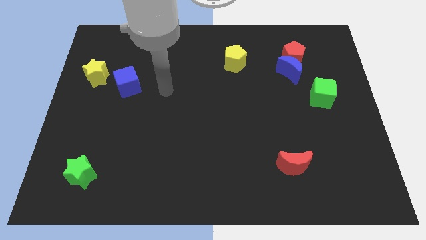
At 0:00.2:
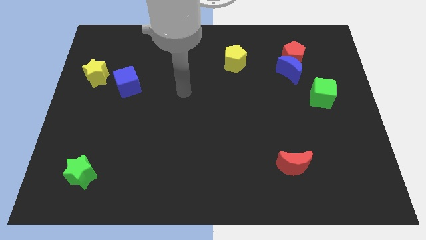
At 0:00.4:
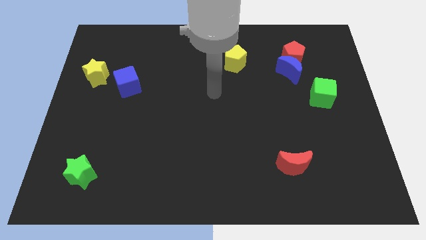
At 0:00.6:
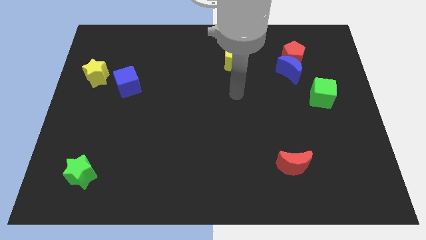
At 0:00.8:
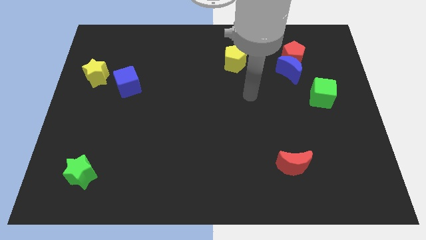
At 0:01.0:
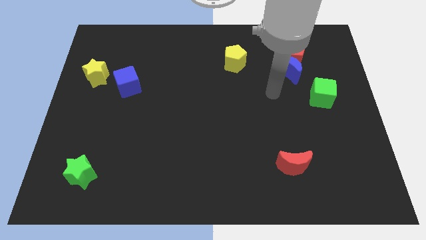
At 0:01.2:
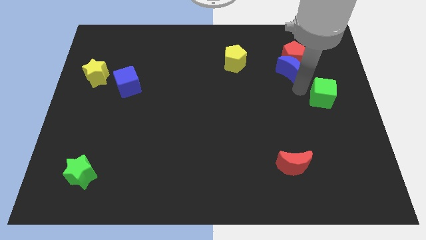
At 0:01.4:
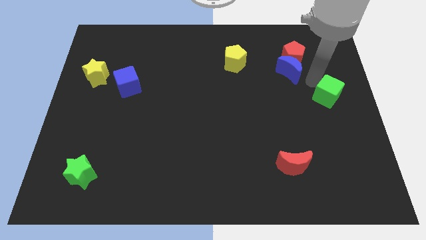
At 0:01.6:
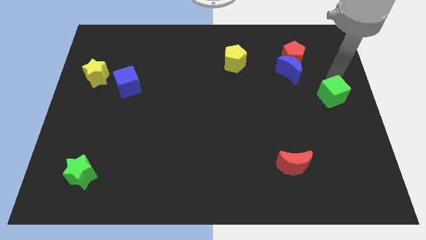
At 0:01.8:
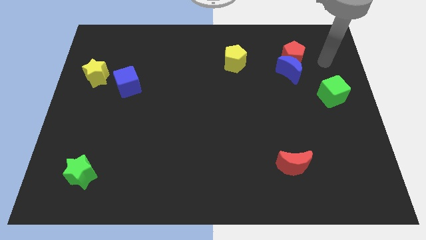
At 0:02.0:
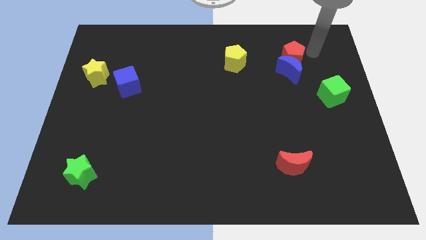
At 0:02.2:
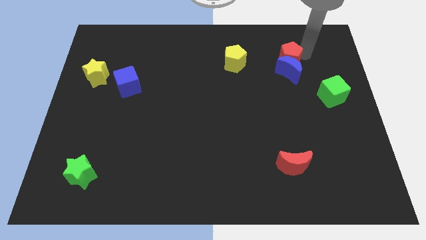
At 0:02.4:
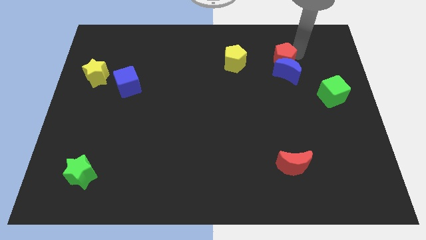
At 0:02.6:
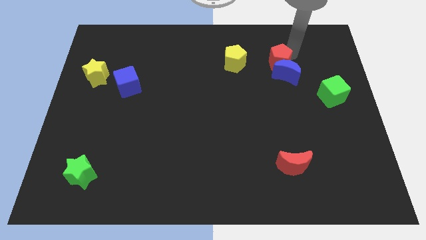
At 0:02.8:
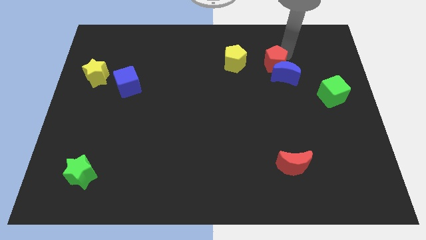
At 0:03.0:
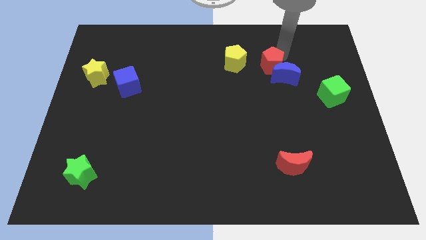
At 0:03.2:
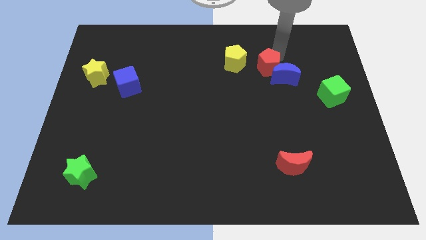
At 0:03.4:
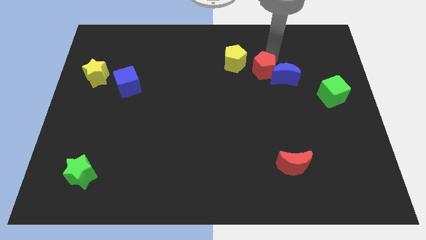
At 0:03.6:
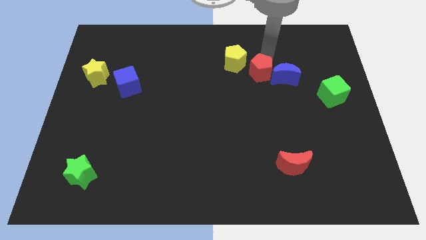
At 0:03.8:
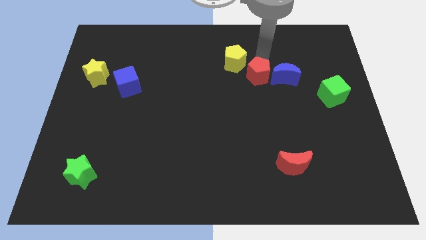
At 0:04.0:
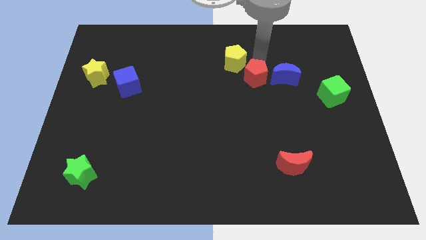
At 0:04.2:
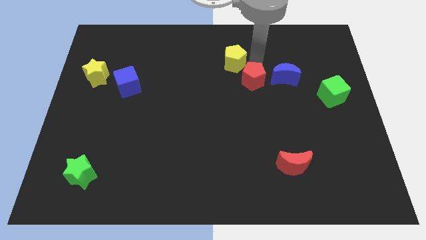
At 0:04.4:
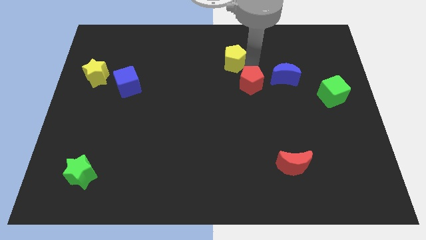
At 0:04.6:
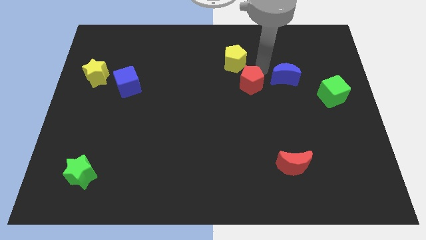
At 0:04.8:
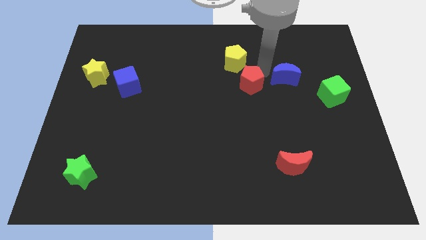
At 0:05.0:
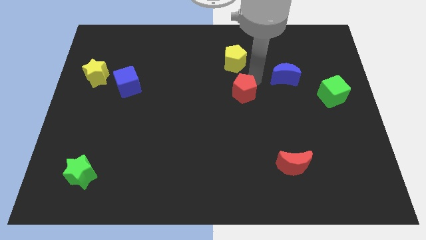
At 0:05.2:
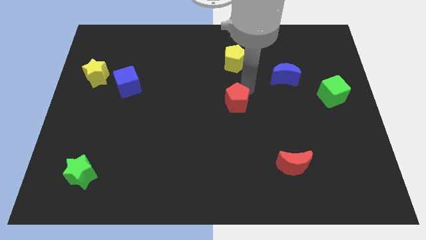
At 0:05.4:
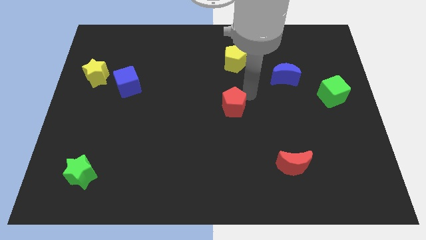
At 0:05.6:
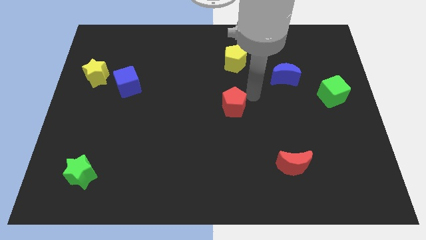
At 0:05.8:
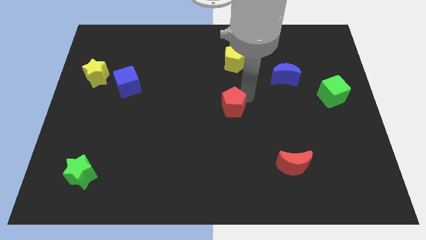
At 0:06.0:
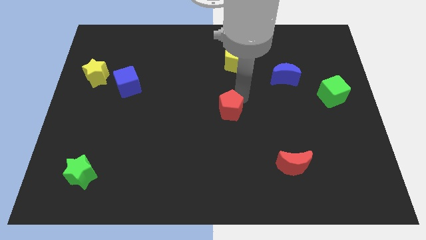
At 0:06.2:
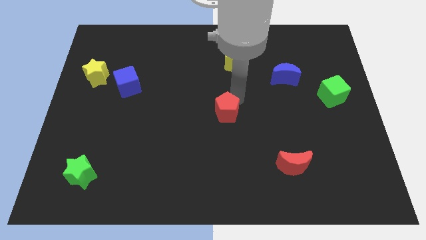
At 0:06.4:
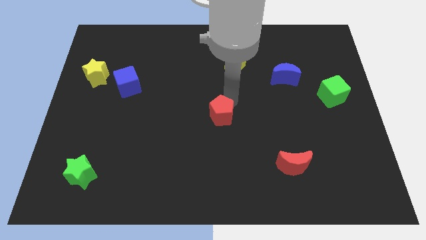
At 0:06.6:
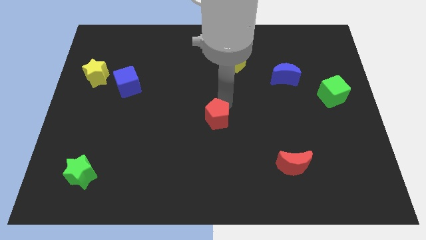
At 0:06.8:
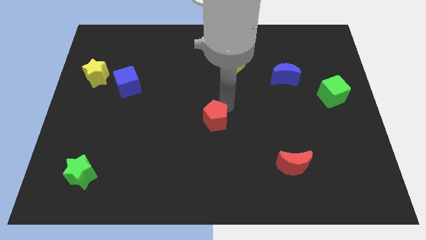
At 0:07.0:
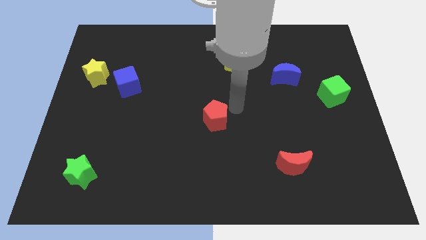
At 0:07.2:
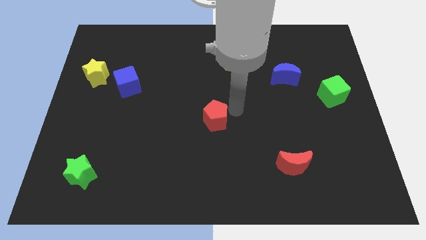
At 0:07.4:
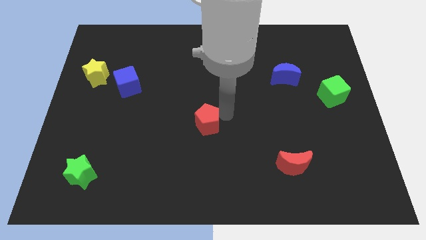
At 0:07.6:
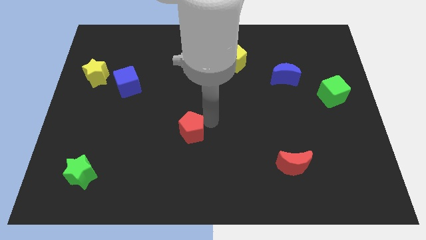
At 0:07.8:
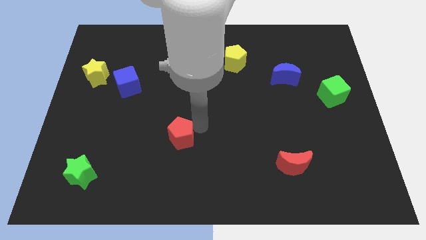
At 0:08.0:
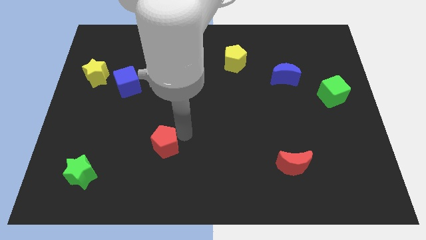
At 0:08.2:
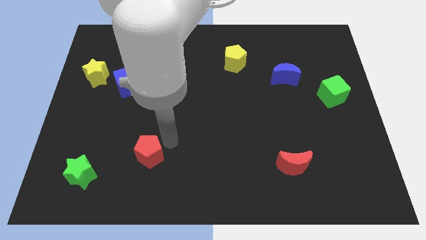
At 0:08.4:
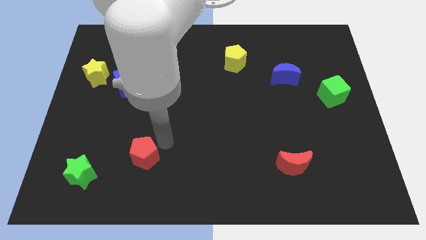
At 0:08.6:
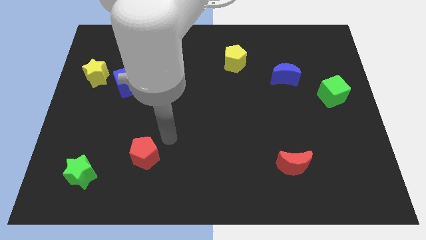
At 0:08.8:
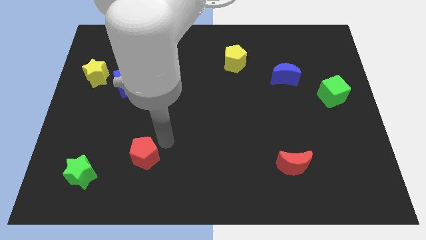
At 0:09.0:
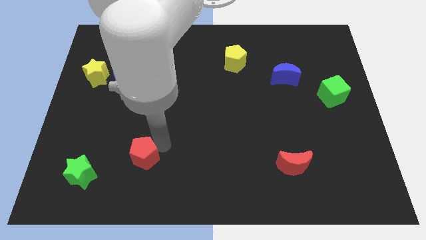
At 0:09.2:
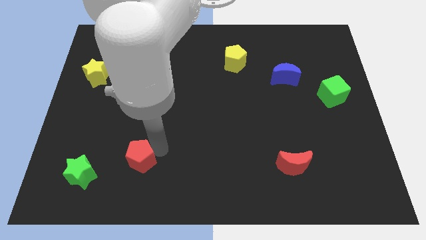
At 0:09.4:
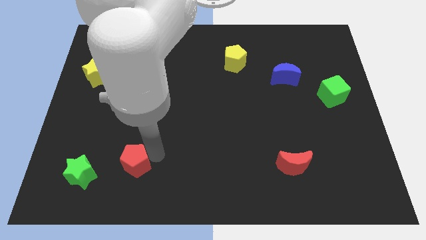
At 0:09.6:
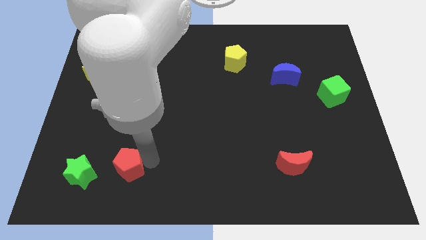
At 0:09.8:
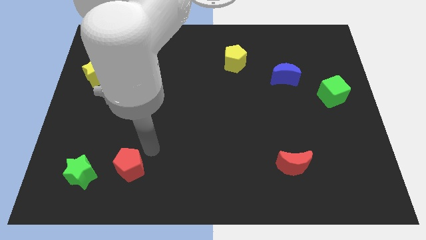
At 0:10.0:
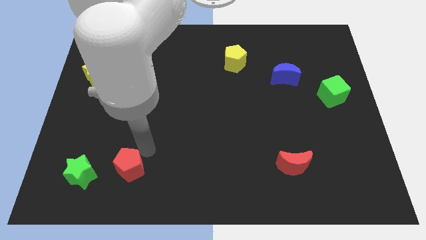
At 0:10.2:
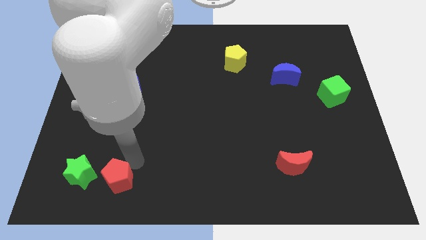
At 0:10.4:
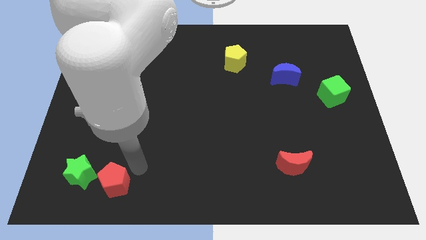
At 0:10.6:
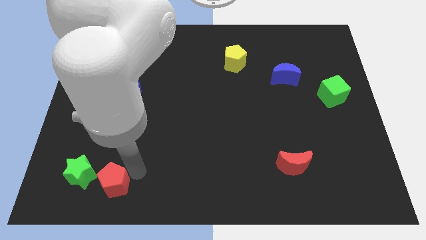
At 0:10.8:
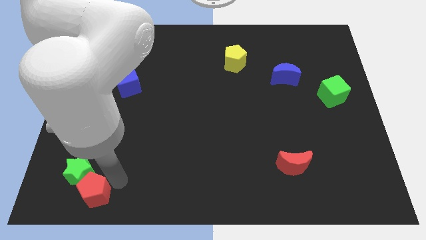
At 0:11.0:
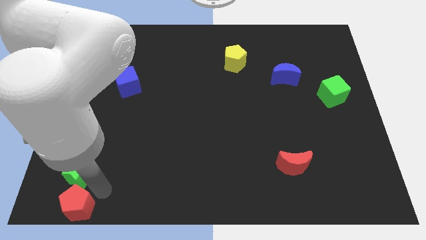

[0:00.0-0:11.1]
put the red pentagon to the bottom left corner

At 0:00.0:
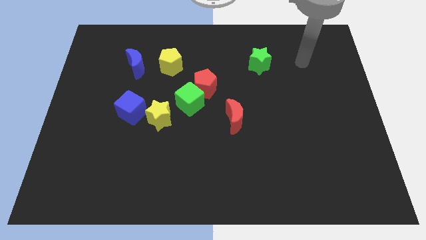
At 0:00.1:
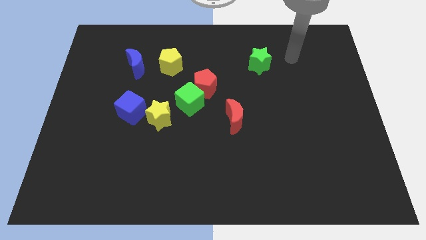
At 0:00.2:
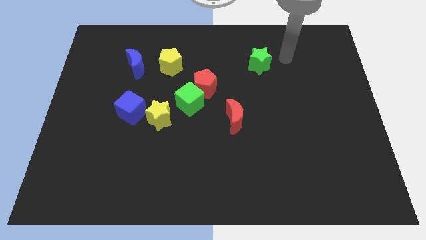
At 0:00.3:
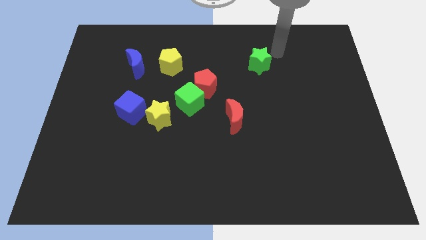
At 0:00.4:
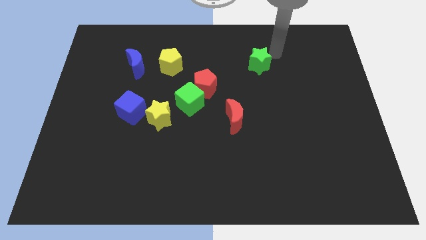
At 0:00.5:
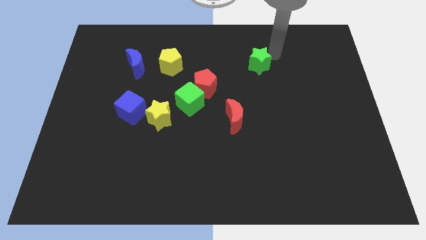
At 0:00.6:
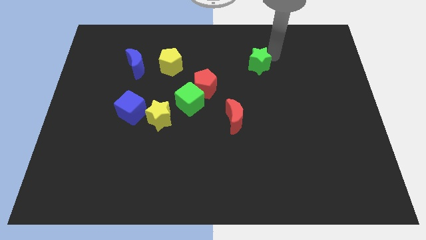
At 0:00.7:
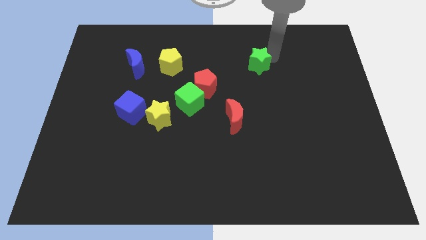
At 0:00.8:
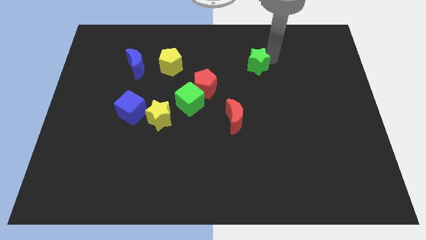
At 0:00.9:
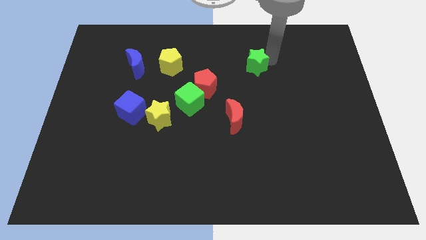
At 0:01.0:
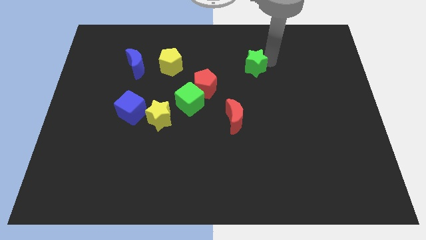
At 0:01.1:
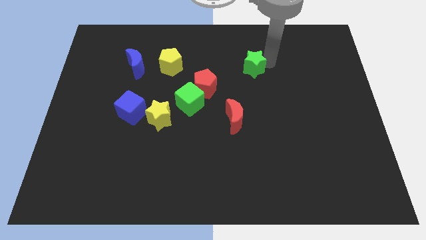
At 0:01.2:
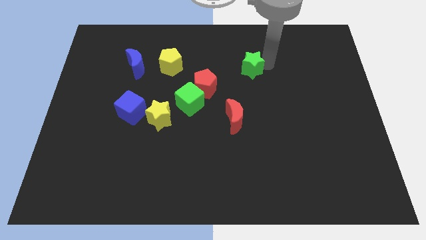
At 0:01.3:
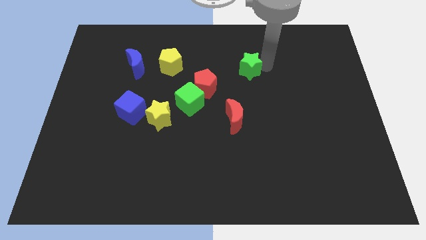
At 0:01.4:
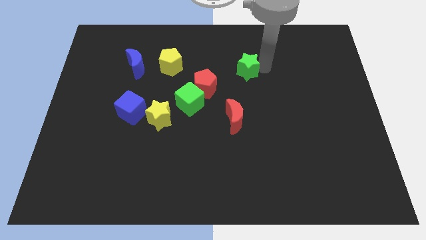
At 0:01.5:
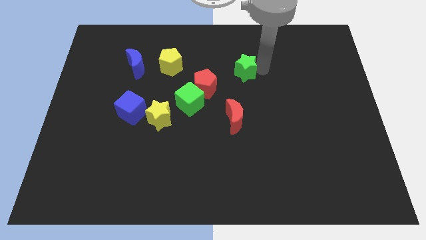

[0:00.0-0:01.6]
move the green star to the middle of the board
